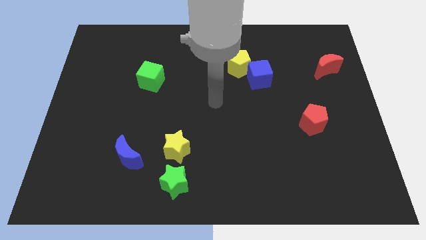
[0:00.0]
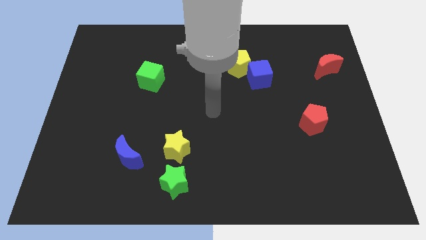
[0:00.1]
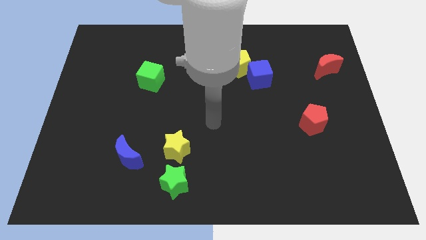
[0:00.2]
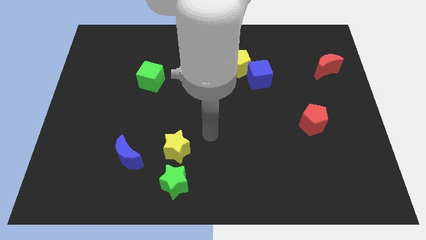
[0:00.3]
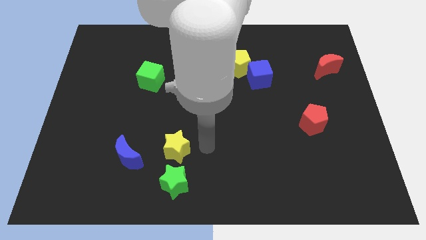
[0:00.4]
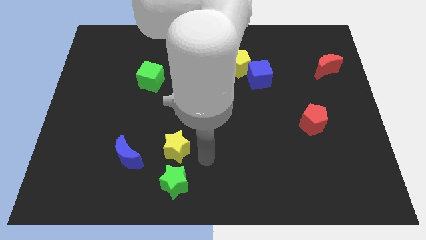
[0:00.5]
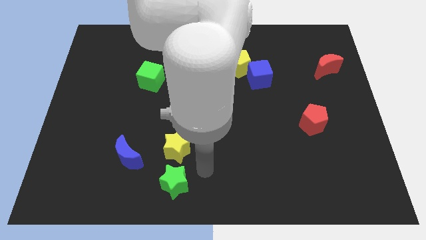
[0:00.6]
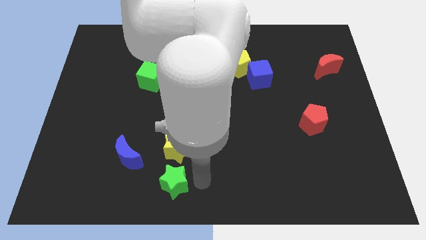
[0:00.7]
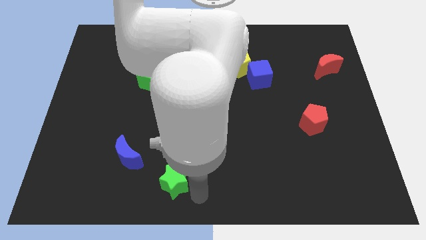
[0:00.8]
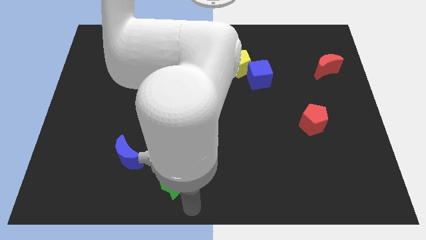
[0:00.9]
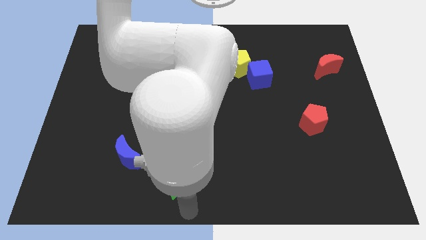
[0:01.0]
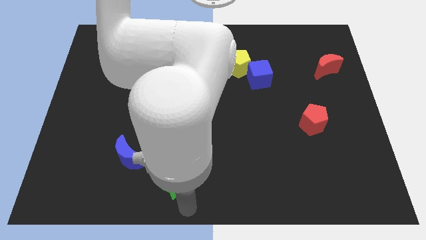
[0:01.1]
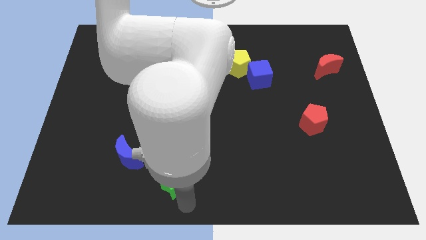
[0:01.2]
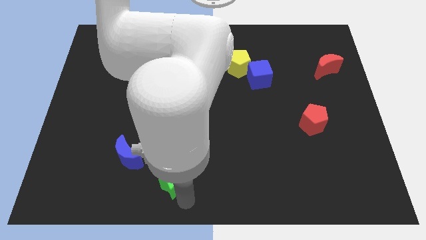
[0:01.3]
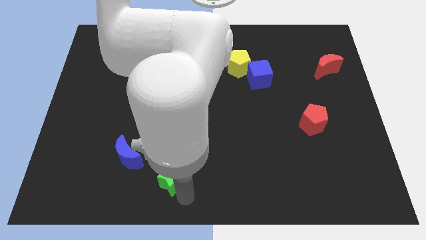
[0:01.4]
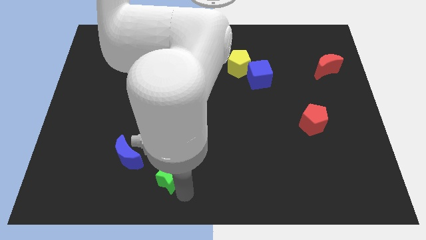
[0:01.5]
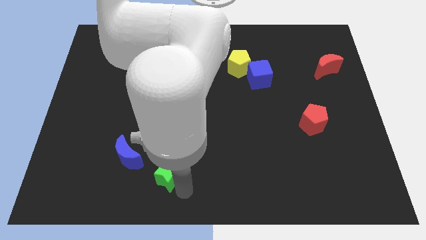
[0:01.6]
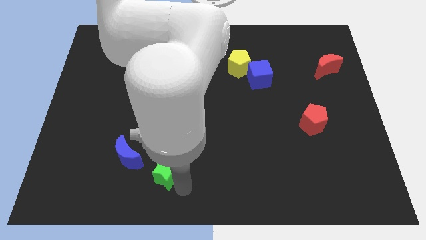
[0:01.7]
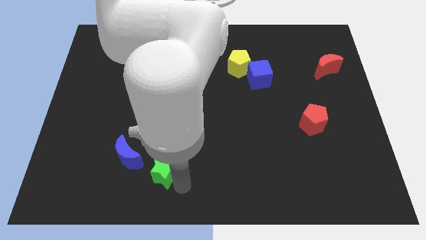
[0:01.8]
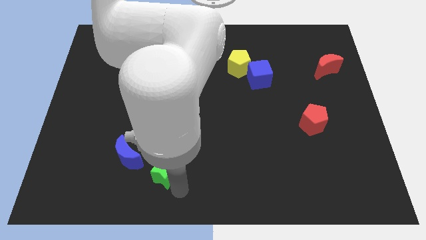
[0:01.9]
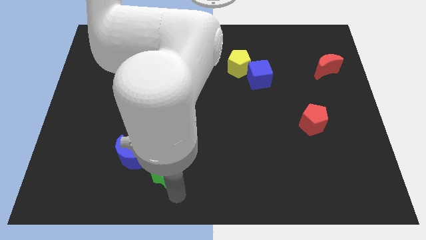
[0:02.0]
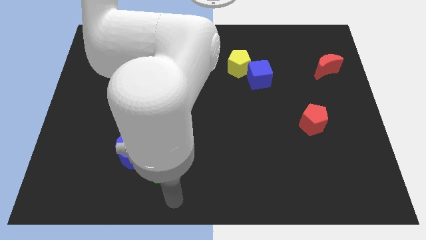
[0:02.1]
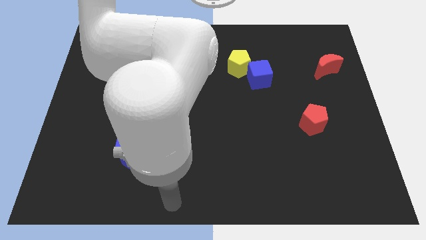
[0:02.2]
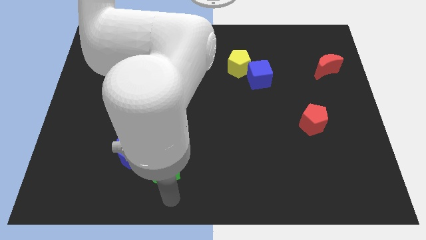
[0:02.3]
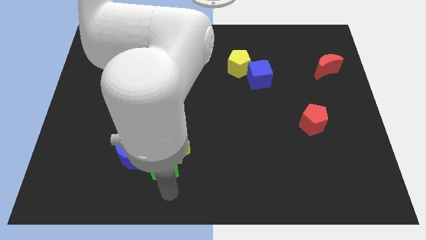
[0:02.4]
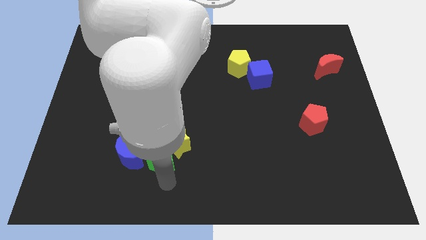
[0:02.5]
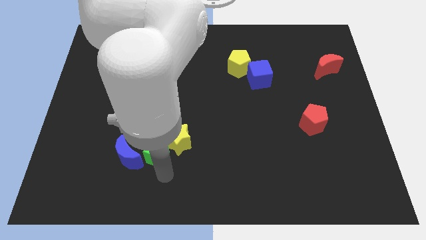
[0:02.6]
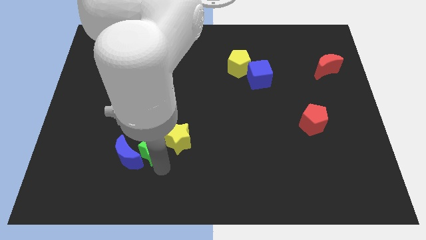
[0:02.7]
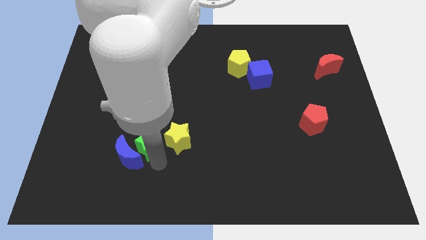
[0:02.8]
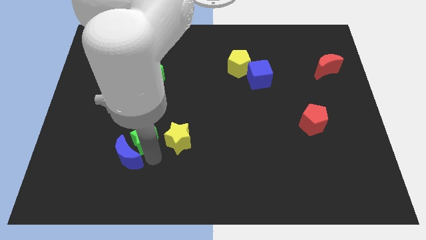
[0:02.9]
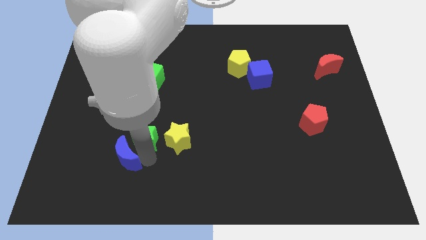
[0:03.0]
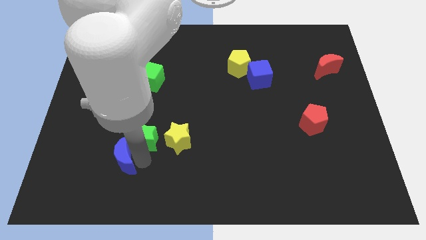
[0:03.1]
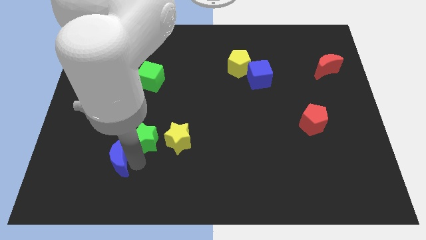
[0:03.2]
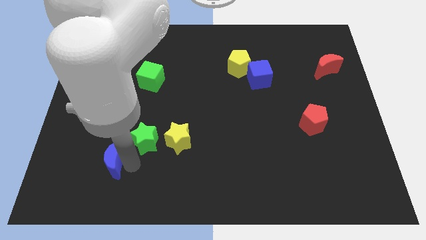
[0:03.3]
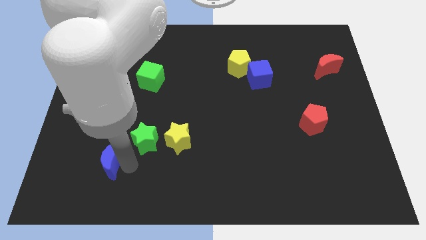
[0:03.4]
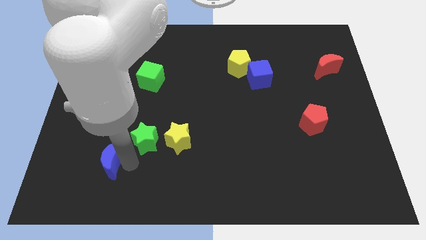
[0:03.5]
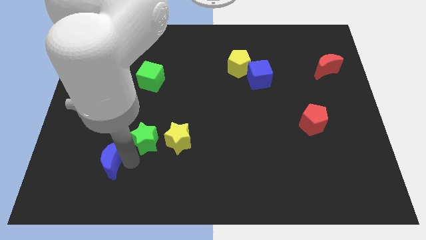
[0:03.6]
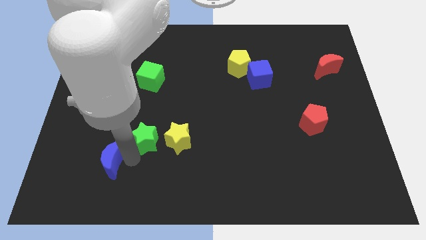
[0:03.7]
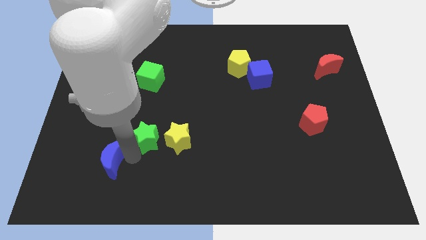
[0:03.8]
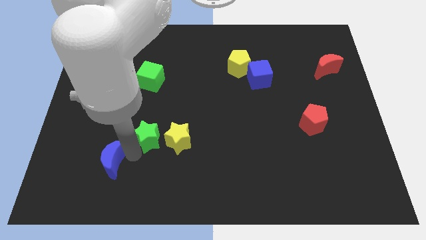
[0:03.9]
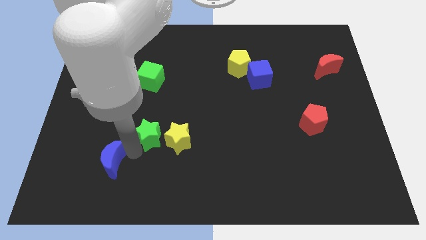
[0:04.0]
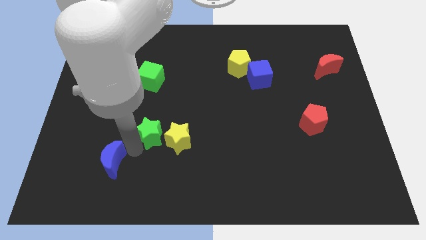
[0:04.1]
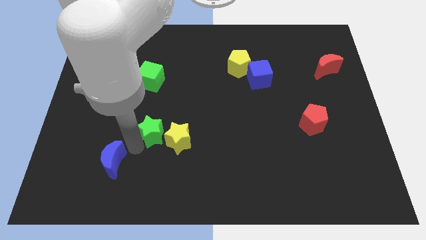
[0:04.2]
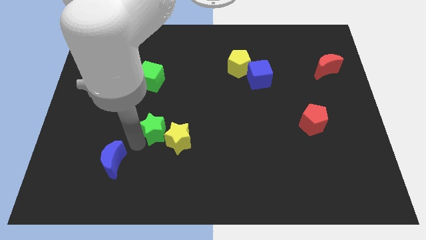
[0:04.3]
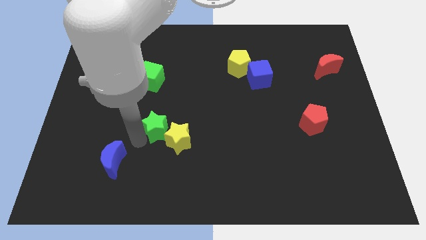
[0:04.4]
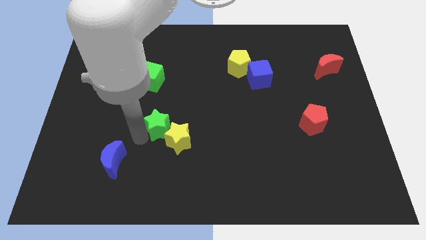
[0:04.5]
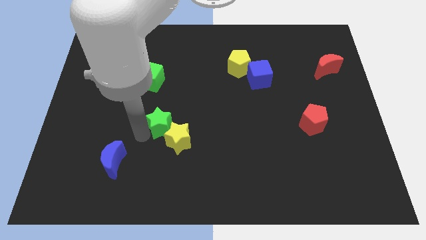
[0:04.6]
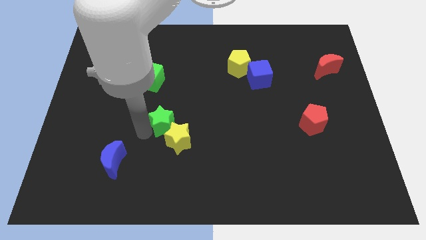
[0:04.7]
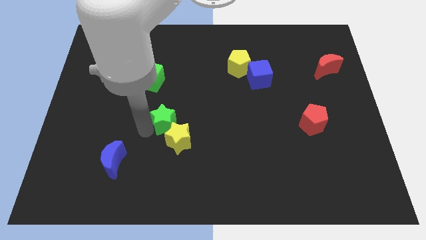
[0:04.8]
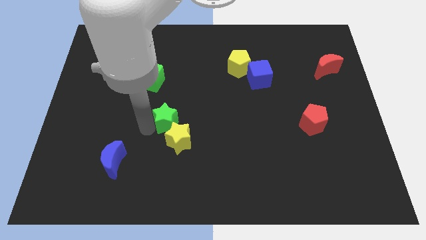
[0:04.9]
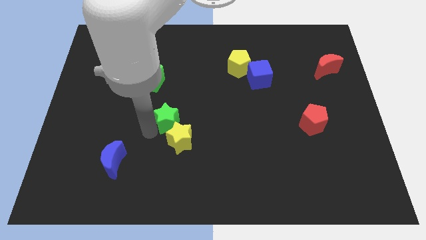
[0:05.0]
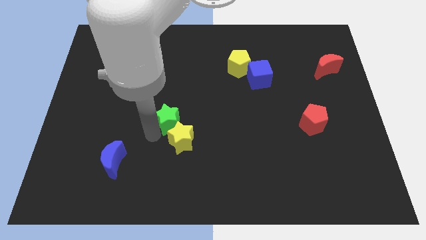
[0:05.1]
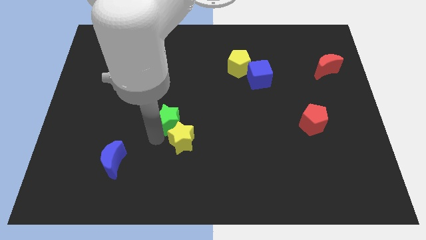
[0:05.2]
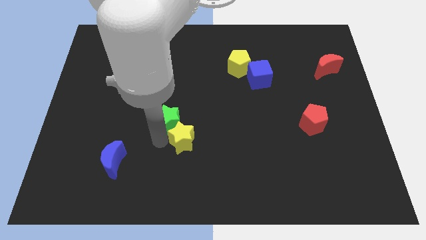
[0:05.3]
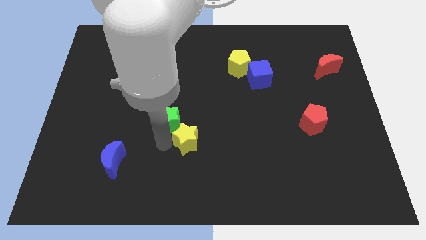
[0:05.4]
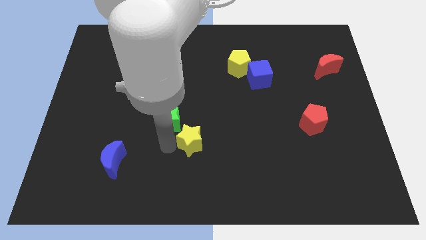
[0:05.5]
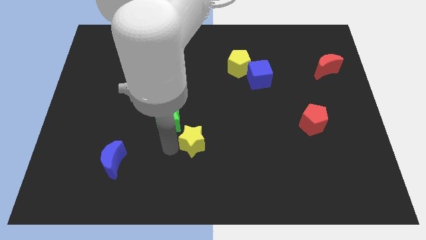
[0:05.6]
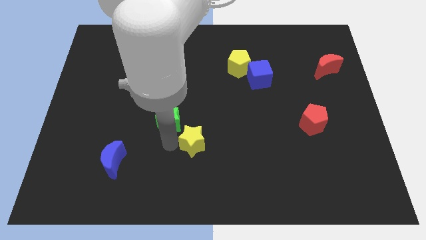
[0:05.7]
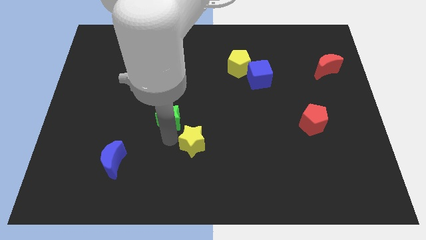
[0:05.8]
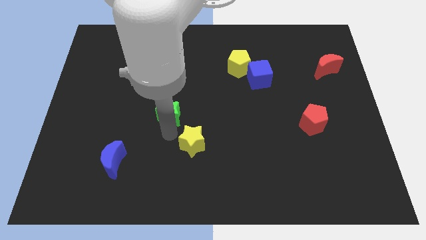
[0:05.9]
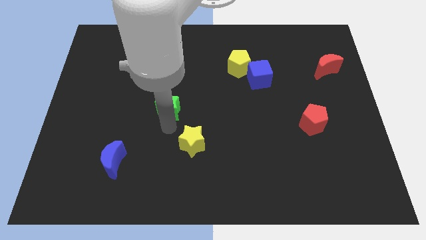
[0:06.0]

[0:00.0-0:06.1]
put the green star to the bottom right of the green cube
